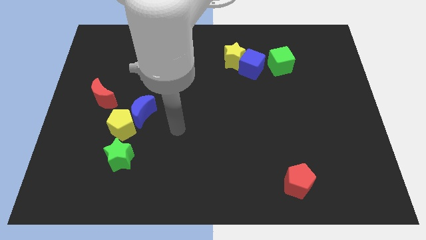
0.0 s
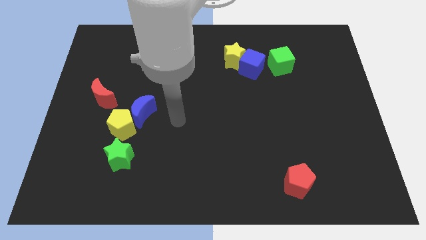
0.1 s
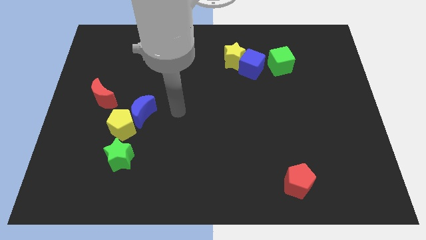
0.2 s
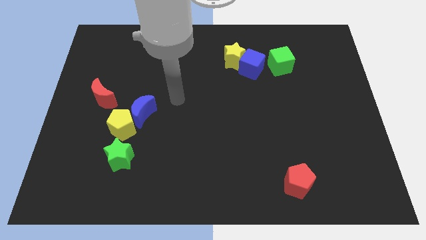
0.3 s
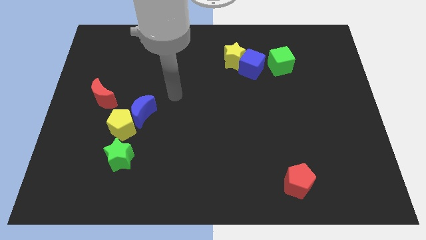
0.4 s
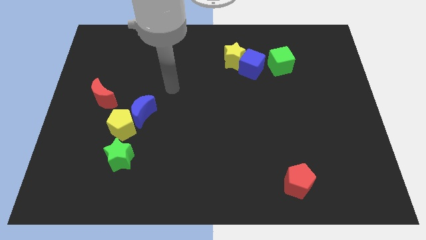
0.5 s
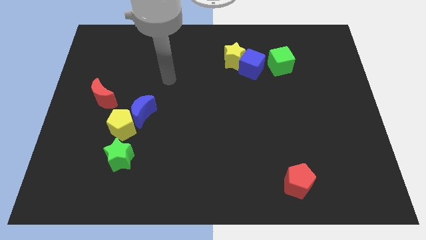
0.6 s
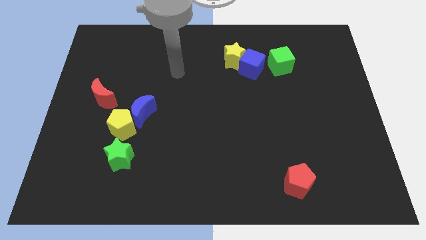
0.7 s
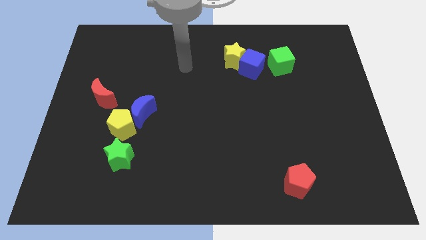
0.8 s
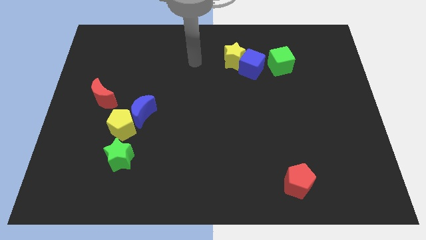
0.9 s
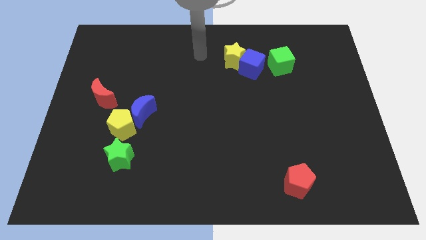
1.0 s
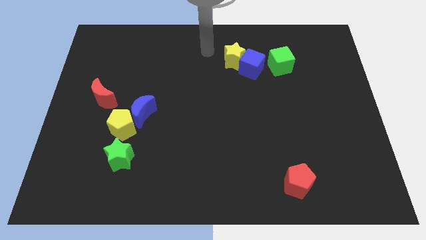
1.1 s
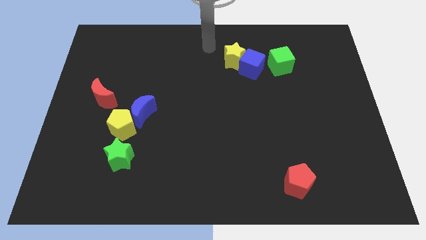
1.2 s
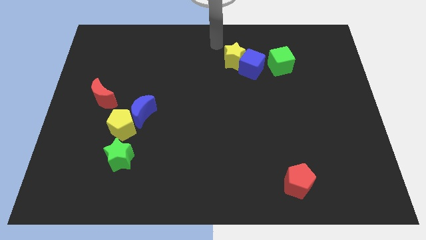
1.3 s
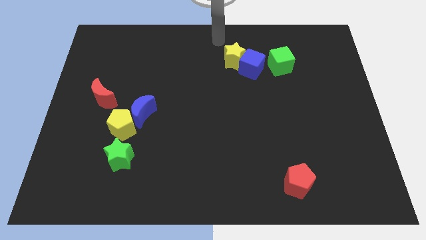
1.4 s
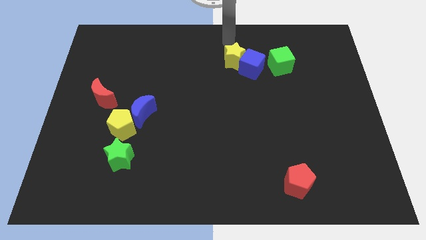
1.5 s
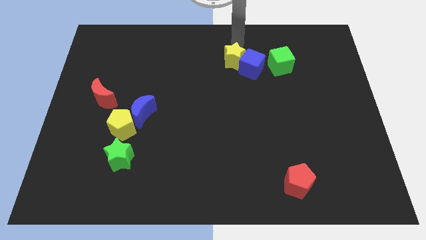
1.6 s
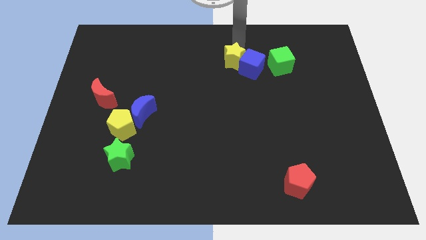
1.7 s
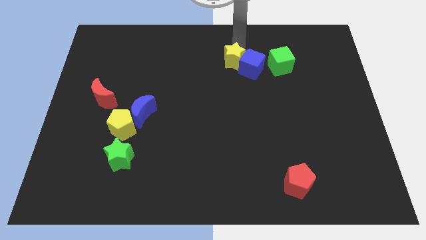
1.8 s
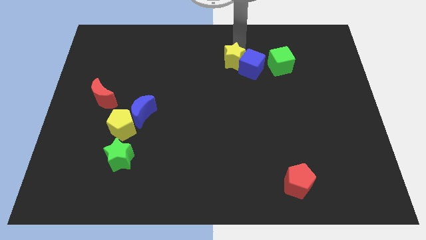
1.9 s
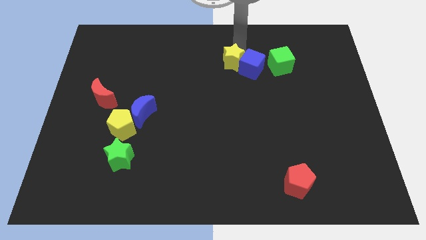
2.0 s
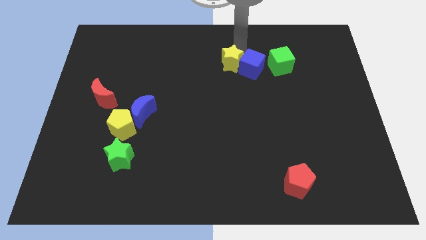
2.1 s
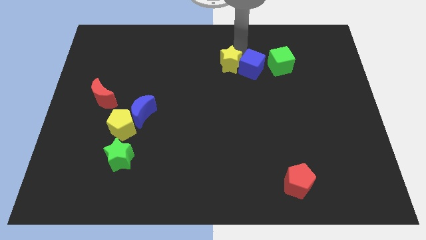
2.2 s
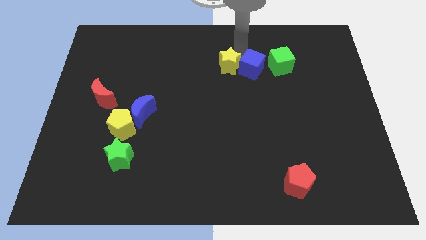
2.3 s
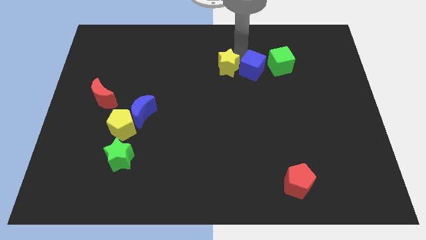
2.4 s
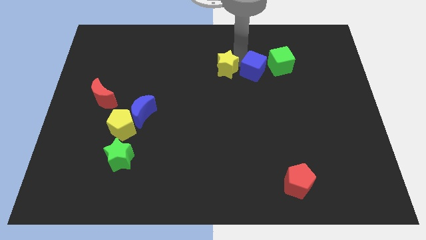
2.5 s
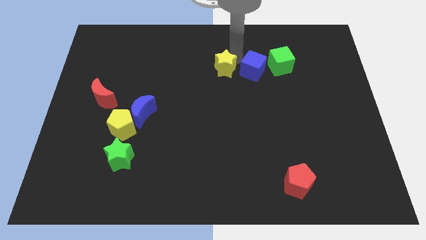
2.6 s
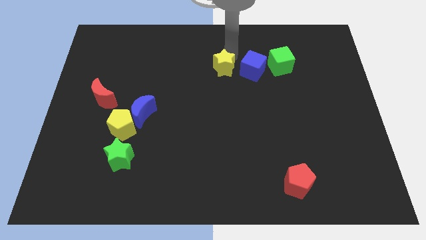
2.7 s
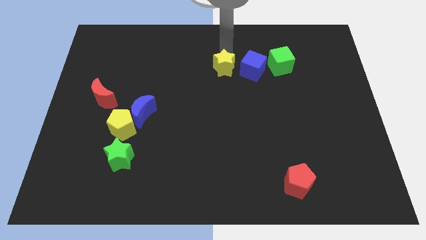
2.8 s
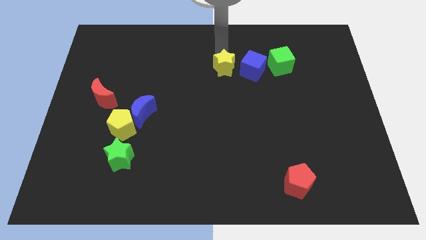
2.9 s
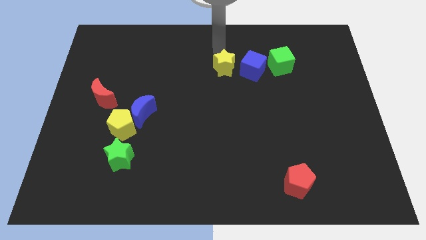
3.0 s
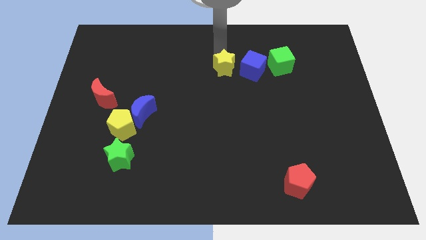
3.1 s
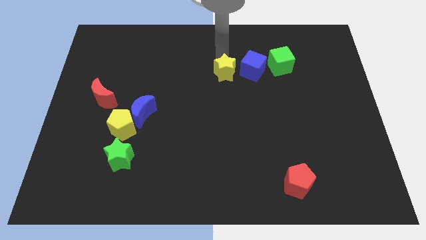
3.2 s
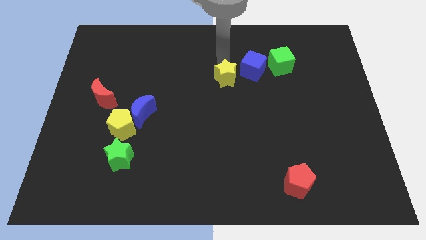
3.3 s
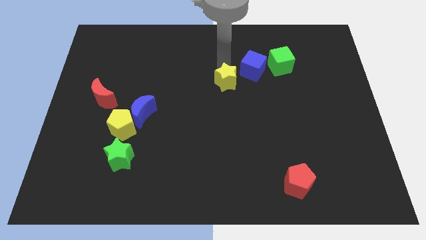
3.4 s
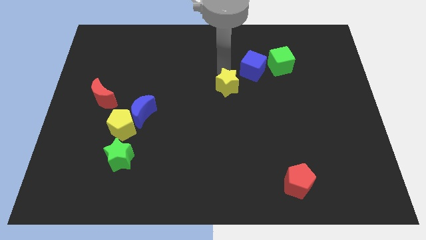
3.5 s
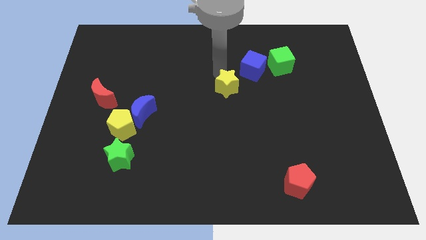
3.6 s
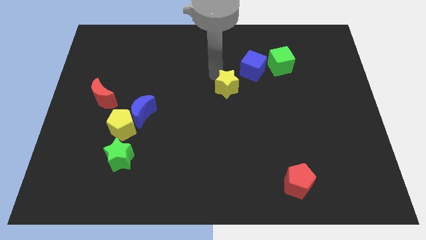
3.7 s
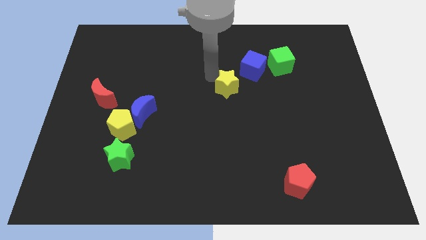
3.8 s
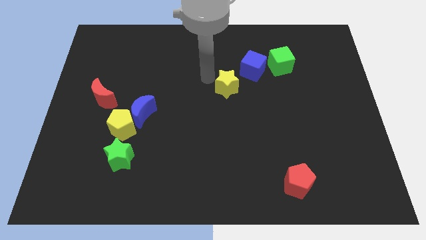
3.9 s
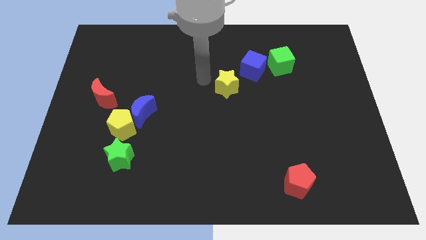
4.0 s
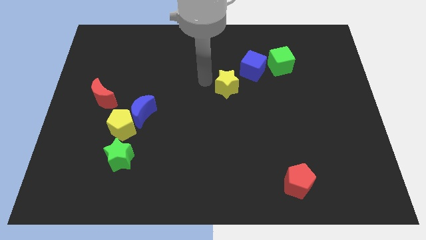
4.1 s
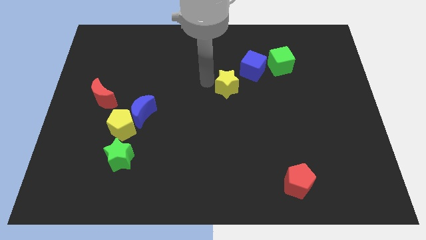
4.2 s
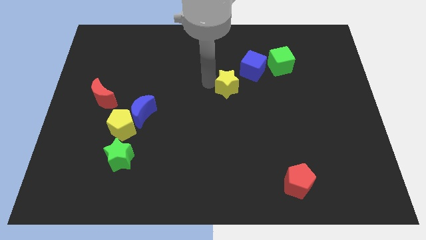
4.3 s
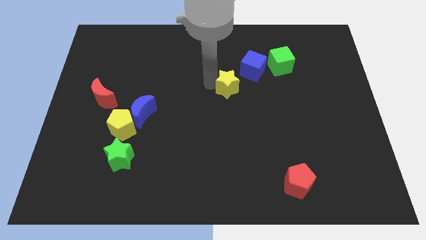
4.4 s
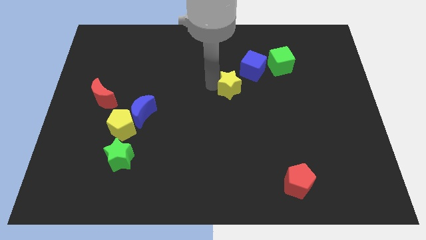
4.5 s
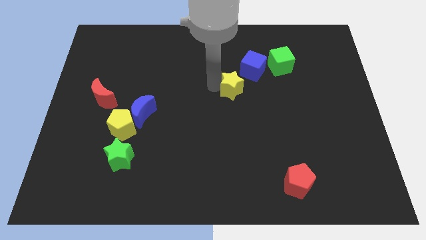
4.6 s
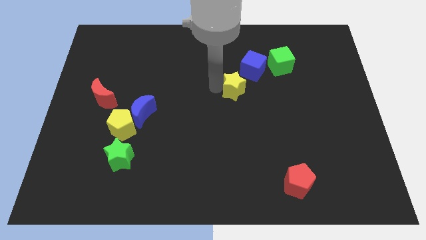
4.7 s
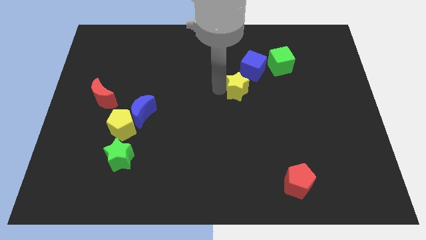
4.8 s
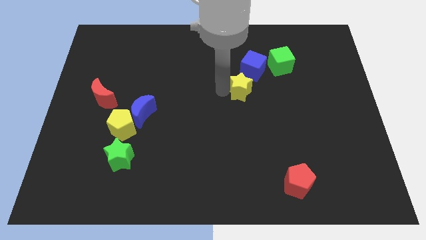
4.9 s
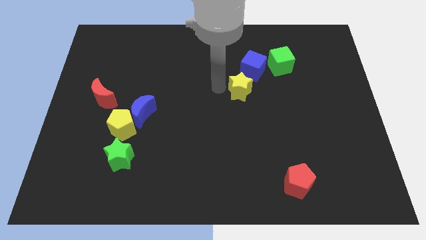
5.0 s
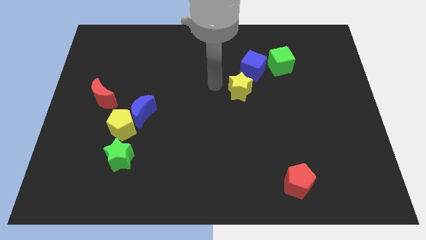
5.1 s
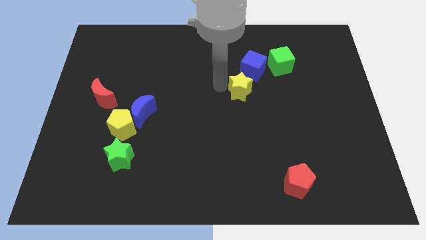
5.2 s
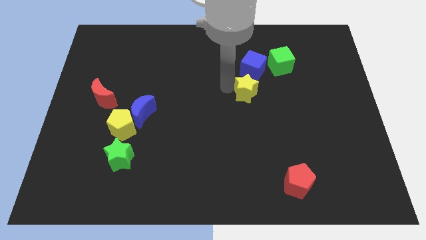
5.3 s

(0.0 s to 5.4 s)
slightly slide the yellow star downwards and right

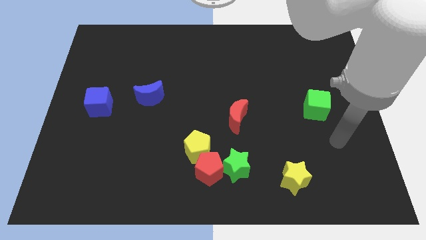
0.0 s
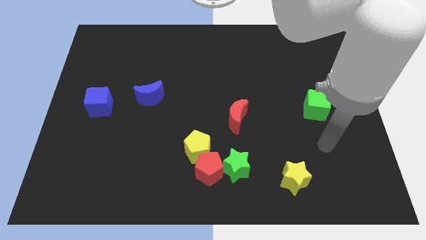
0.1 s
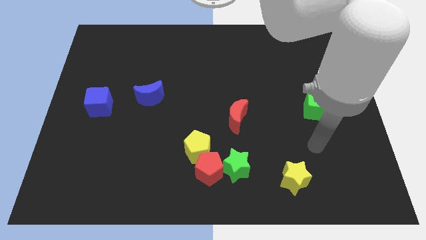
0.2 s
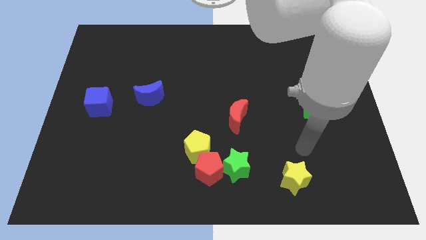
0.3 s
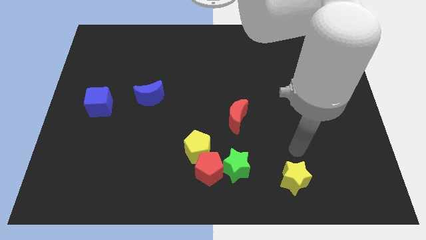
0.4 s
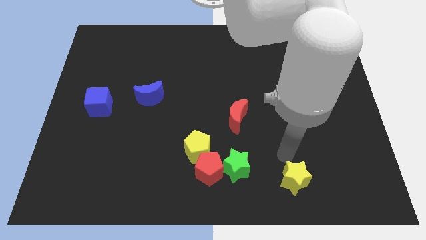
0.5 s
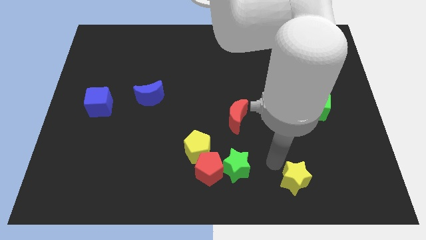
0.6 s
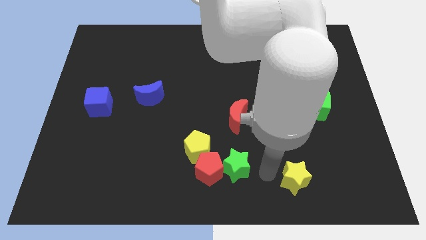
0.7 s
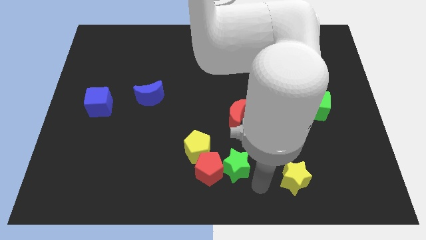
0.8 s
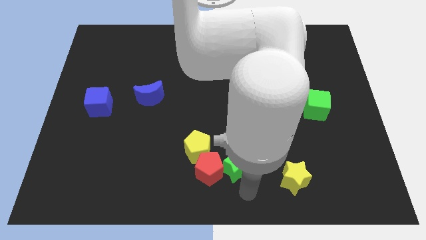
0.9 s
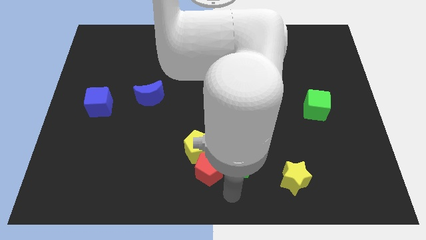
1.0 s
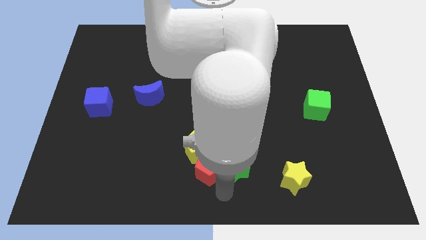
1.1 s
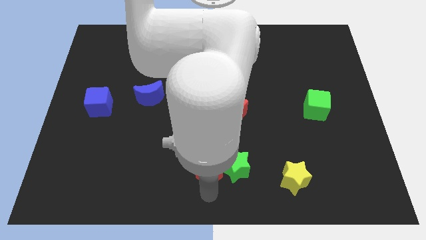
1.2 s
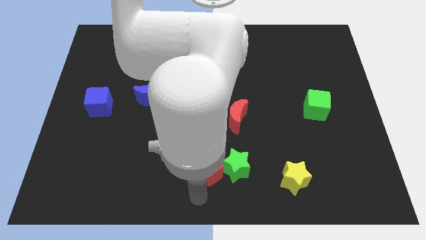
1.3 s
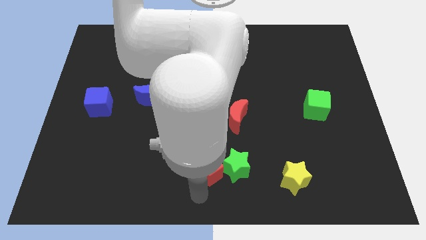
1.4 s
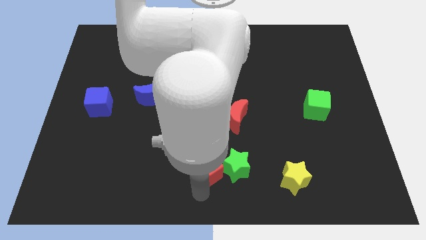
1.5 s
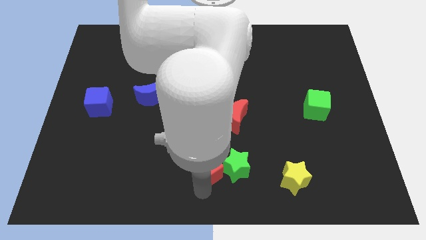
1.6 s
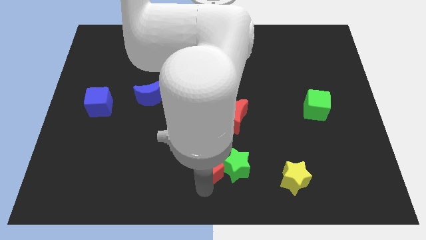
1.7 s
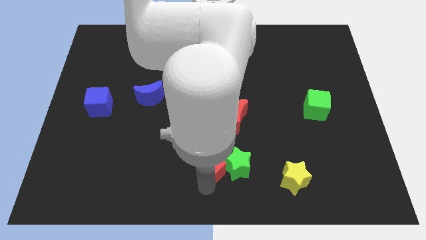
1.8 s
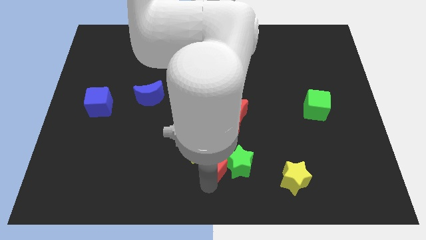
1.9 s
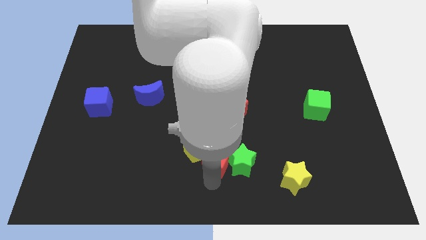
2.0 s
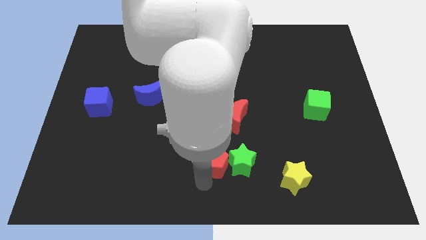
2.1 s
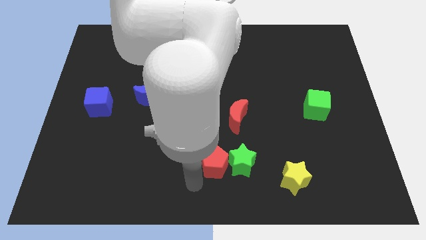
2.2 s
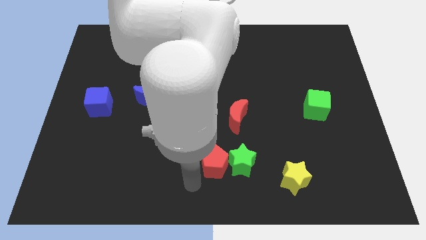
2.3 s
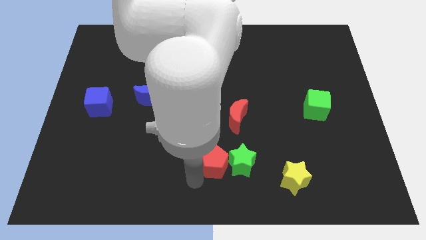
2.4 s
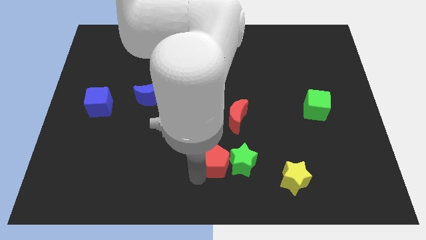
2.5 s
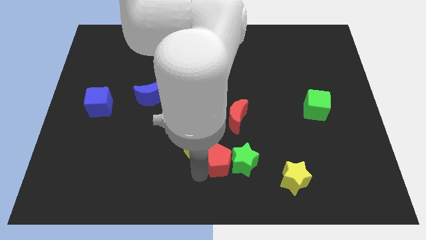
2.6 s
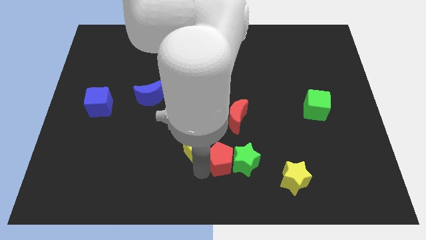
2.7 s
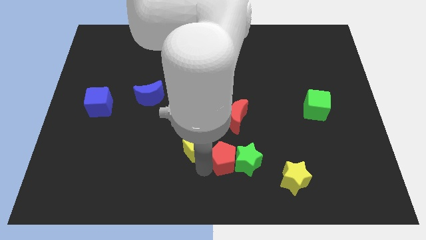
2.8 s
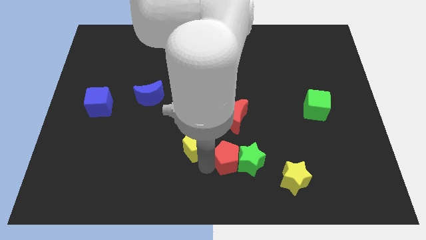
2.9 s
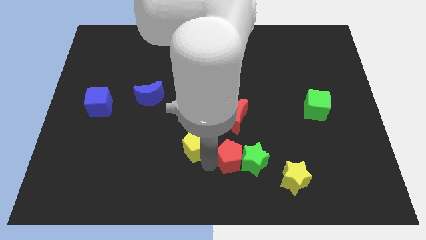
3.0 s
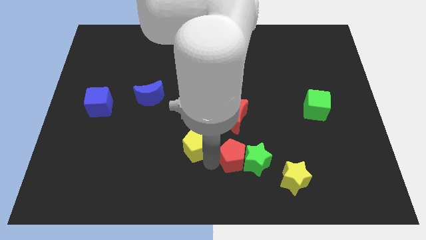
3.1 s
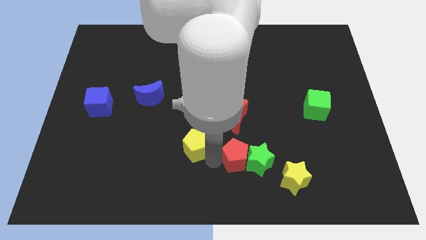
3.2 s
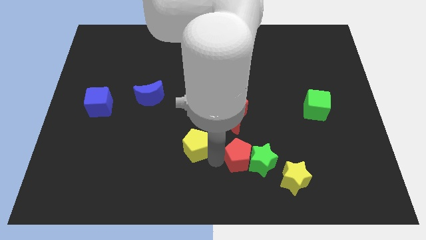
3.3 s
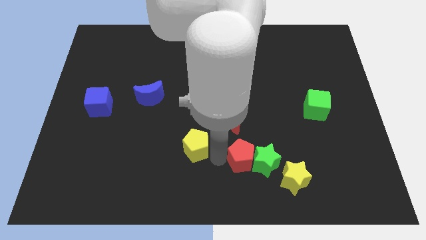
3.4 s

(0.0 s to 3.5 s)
slide the red pentagon a little diagonally upwards and right
